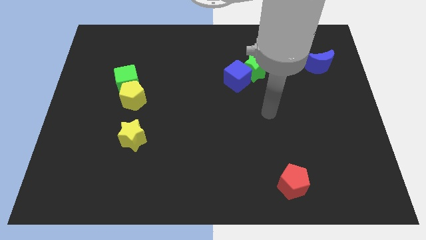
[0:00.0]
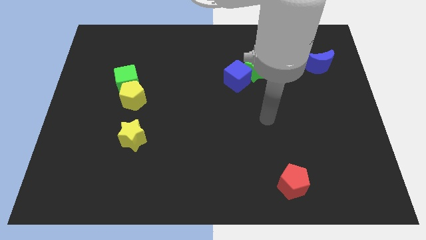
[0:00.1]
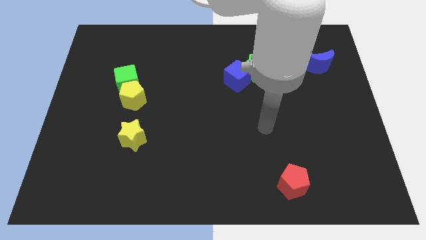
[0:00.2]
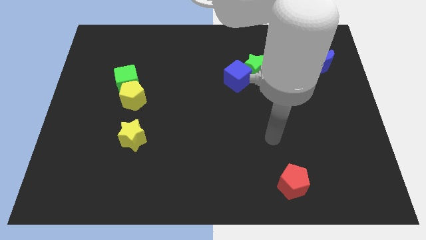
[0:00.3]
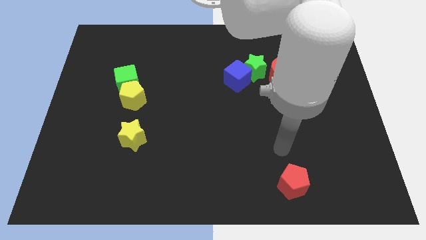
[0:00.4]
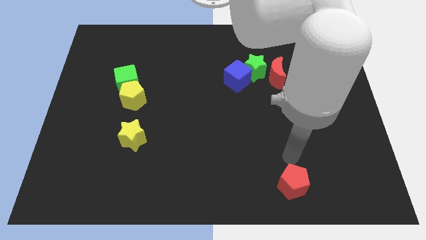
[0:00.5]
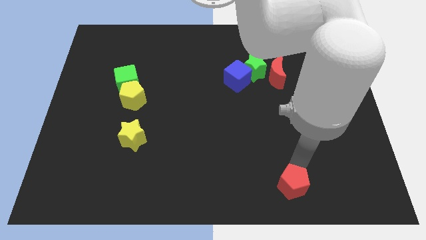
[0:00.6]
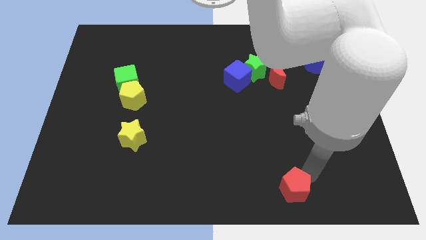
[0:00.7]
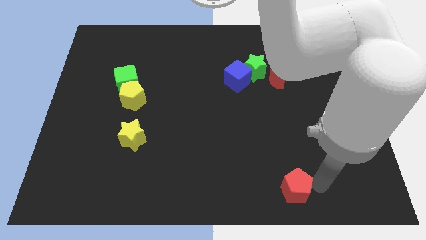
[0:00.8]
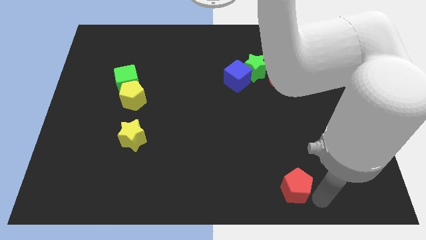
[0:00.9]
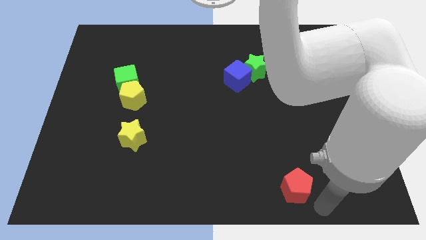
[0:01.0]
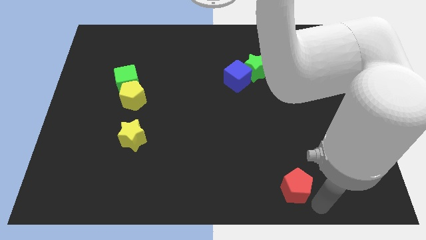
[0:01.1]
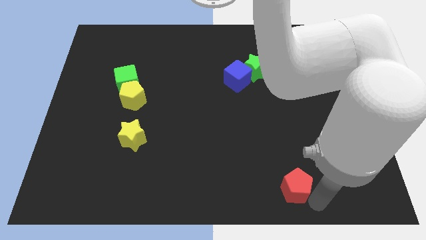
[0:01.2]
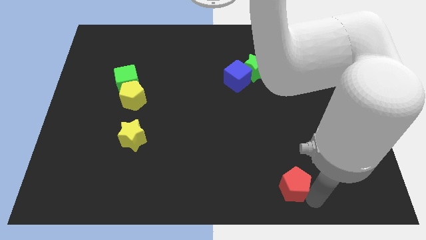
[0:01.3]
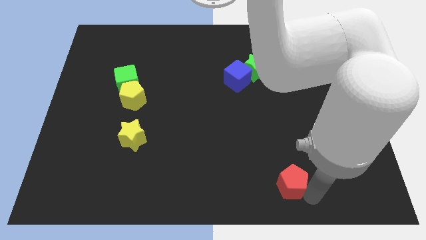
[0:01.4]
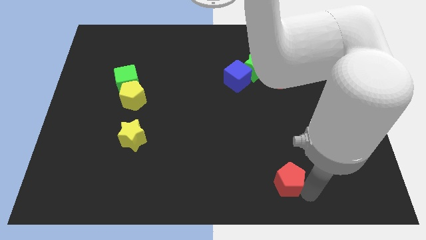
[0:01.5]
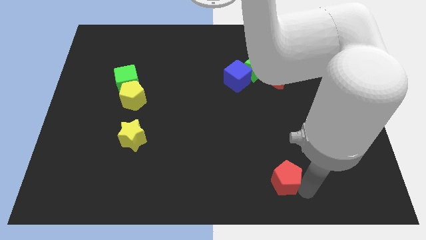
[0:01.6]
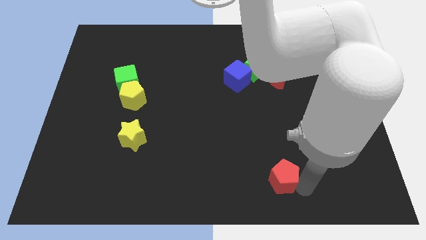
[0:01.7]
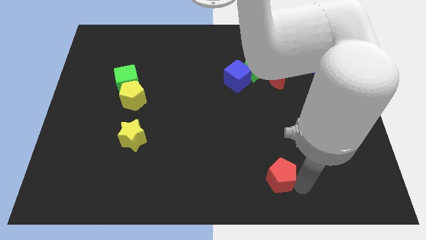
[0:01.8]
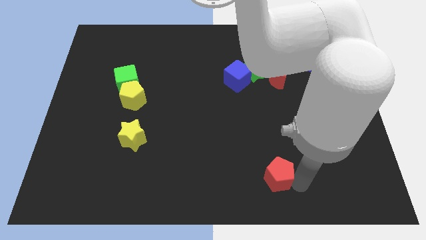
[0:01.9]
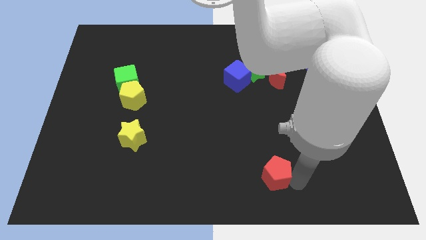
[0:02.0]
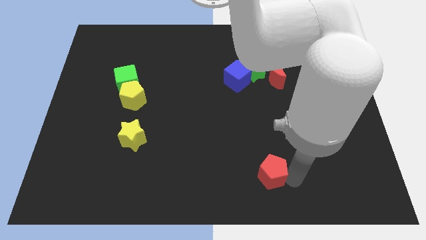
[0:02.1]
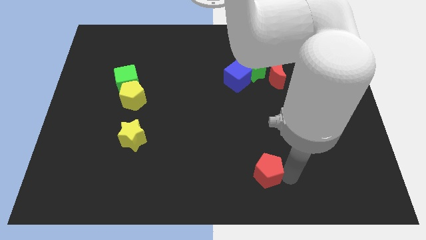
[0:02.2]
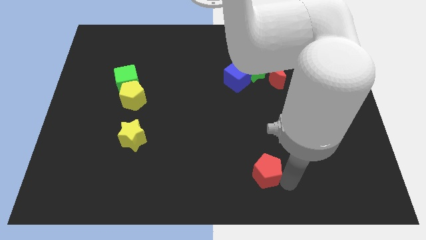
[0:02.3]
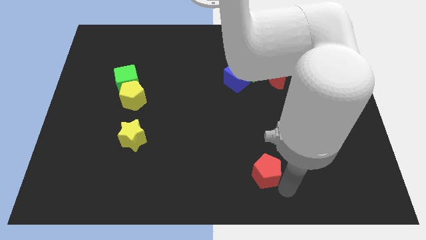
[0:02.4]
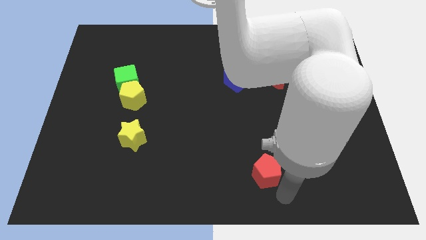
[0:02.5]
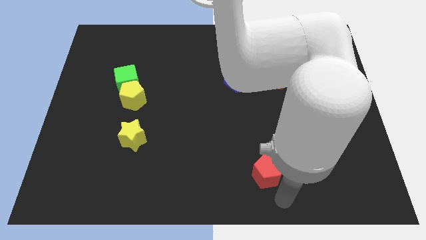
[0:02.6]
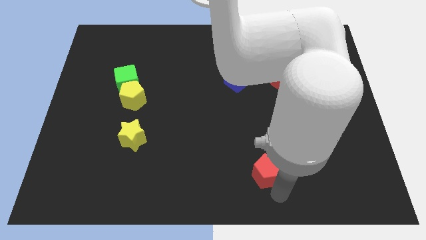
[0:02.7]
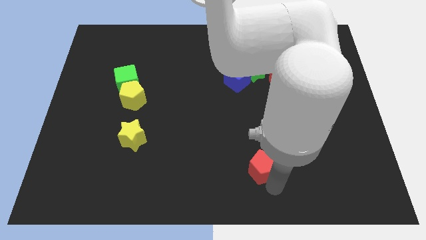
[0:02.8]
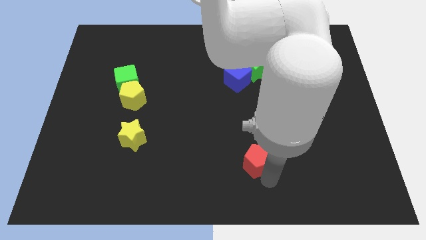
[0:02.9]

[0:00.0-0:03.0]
push the red pentagon up and then left a bit

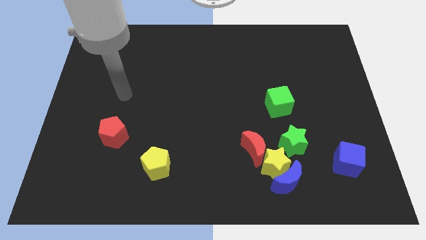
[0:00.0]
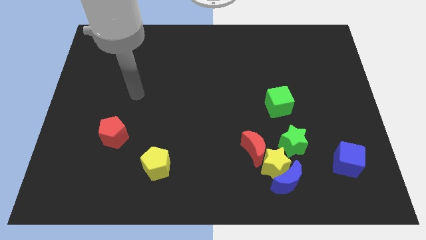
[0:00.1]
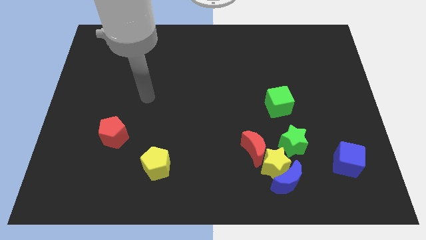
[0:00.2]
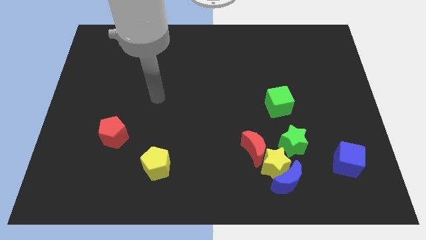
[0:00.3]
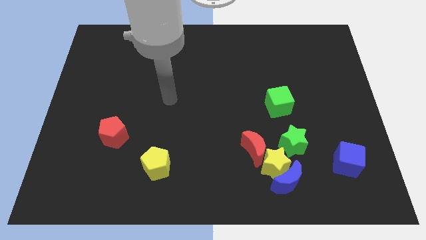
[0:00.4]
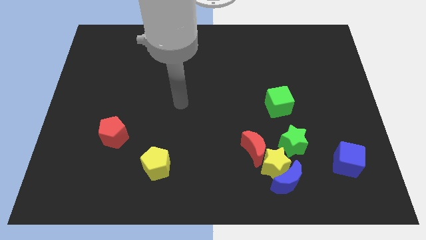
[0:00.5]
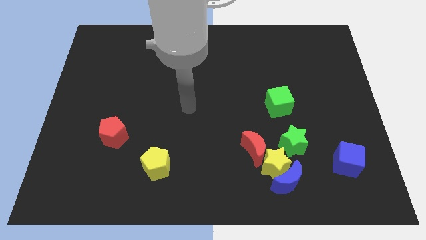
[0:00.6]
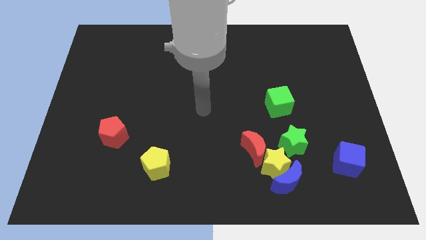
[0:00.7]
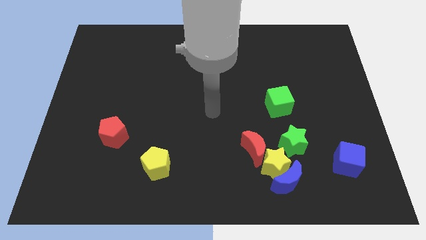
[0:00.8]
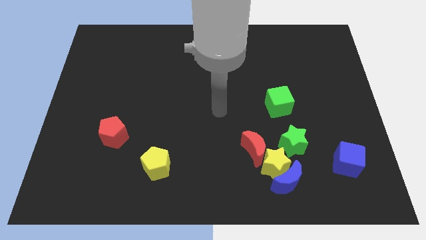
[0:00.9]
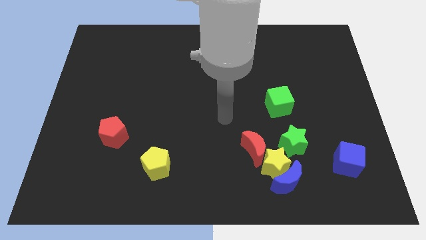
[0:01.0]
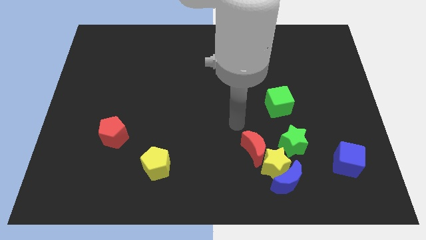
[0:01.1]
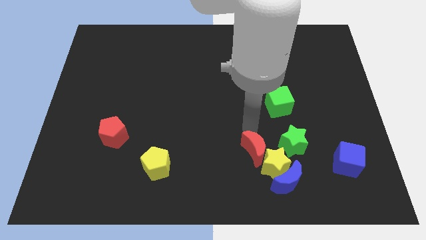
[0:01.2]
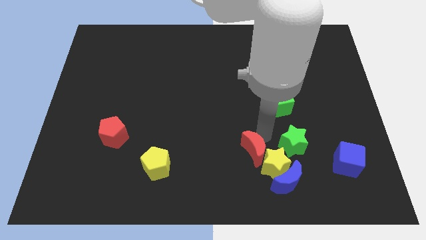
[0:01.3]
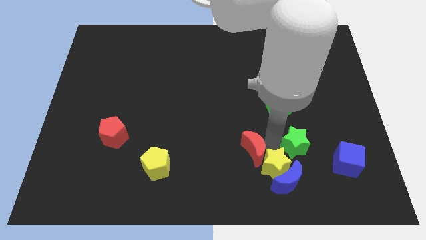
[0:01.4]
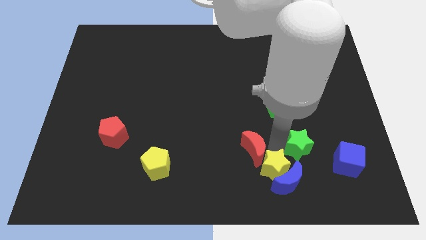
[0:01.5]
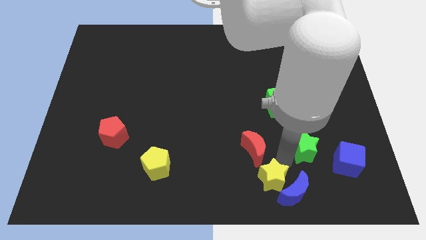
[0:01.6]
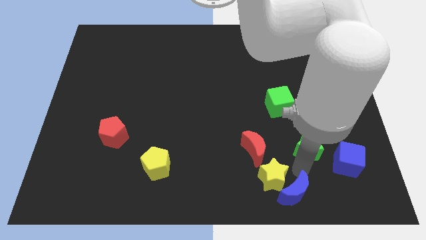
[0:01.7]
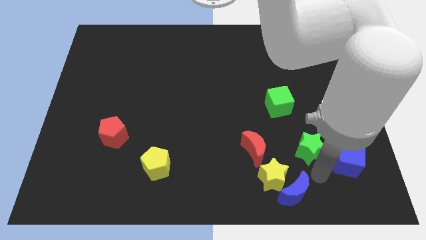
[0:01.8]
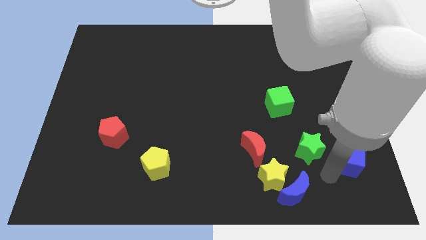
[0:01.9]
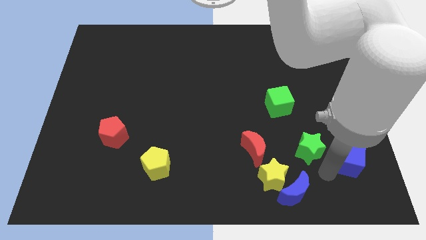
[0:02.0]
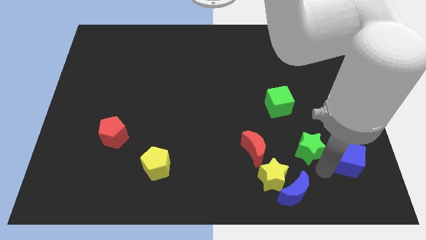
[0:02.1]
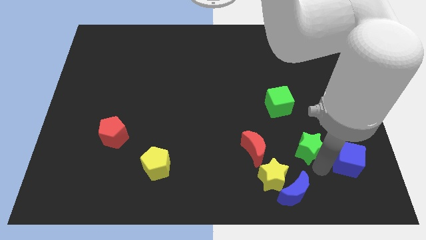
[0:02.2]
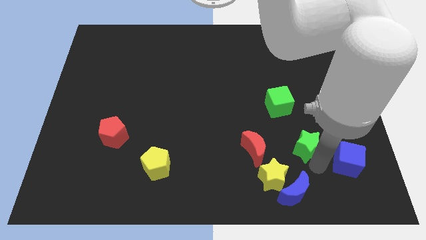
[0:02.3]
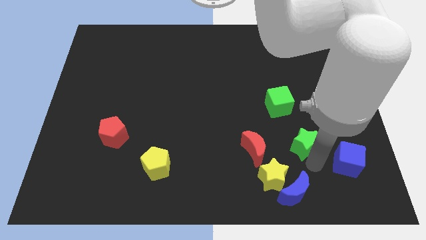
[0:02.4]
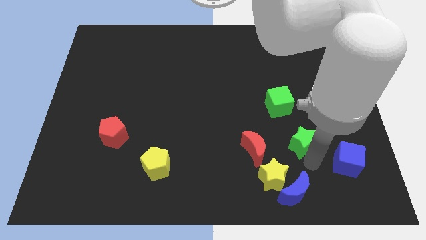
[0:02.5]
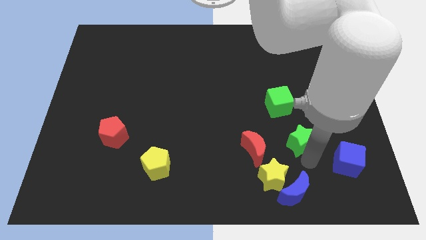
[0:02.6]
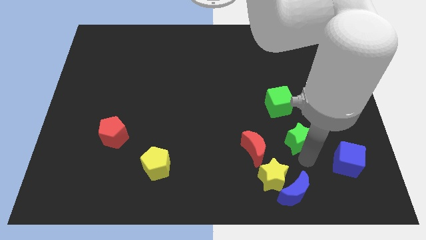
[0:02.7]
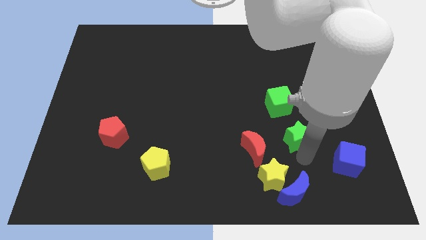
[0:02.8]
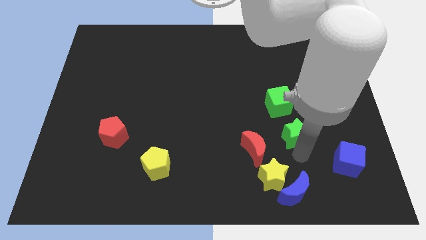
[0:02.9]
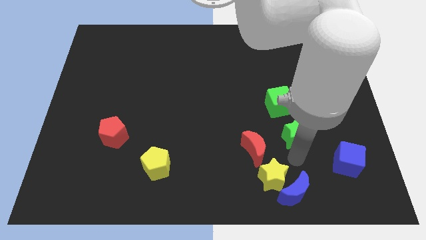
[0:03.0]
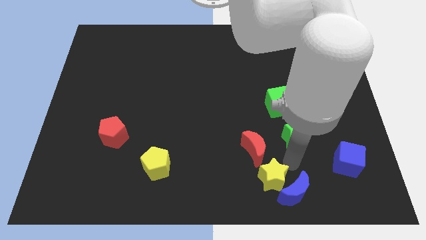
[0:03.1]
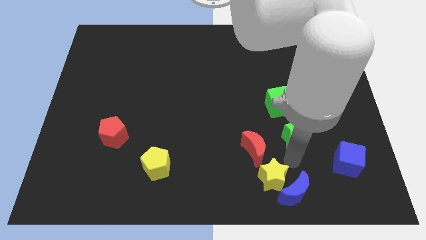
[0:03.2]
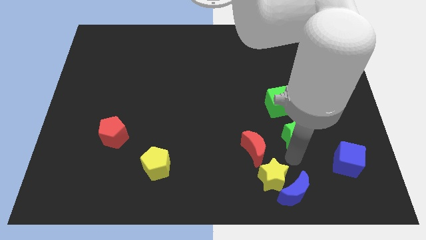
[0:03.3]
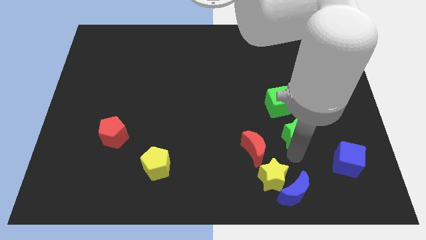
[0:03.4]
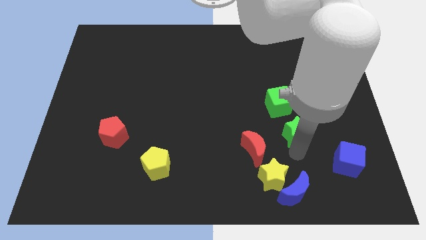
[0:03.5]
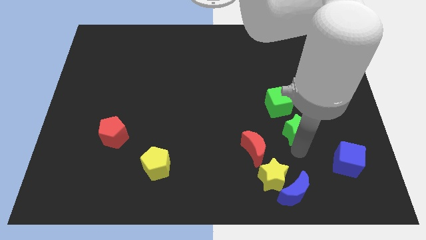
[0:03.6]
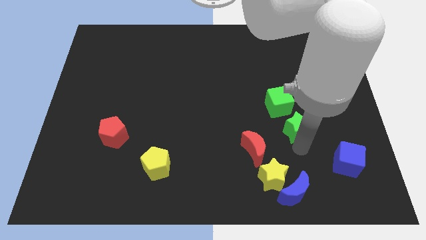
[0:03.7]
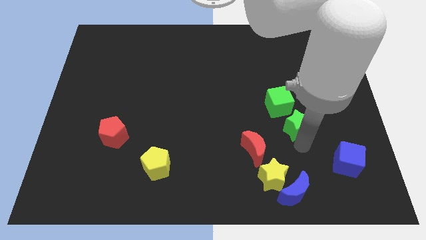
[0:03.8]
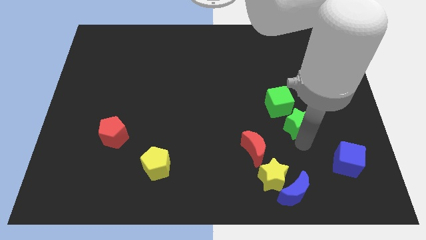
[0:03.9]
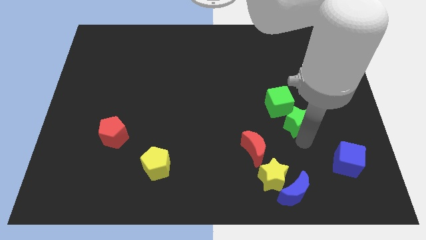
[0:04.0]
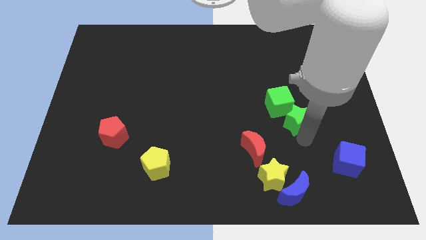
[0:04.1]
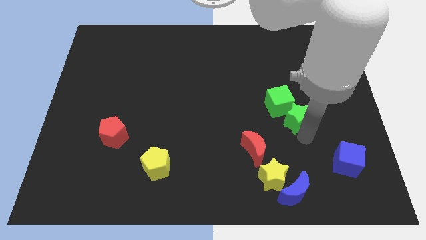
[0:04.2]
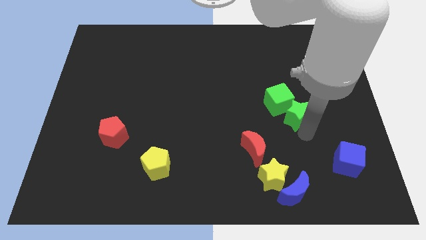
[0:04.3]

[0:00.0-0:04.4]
slide the green star upwards a little bit
